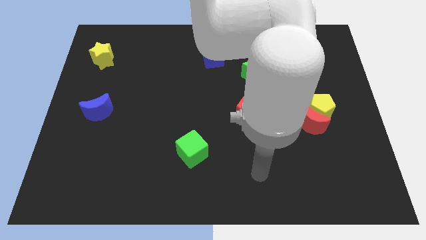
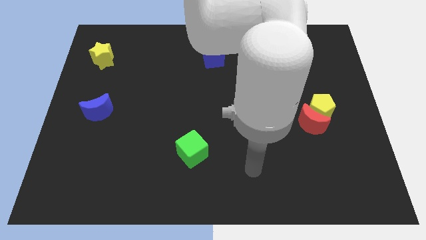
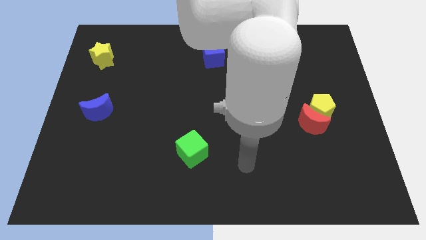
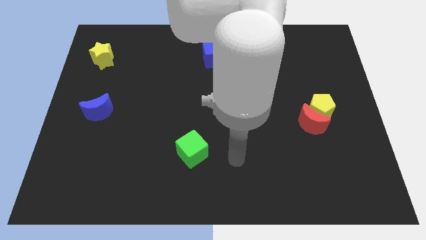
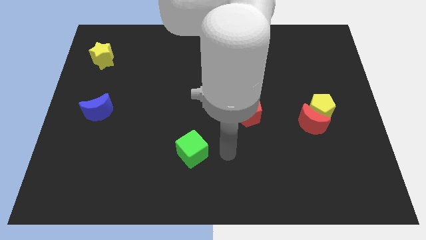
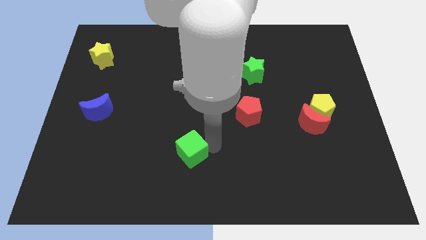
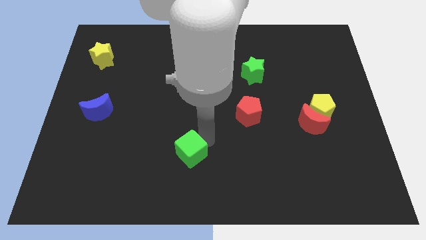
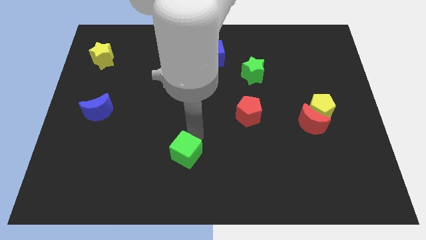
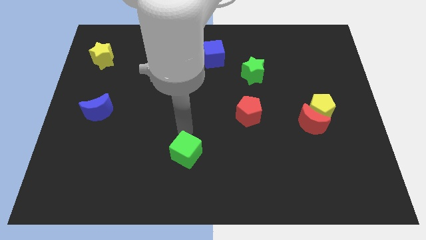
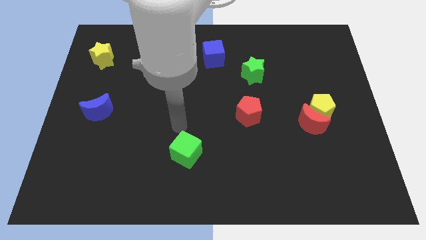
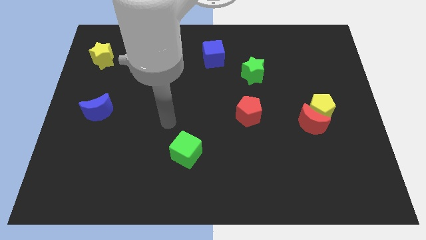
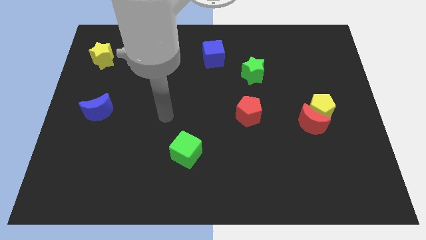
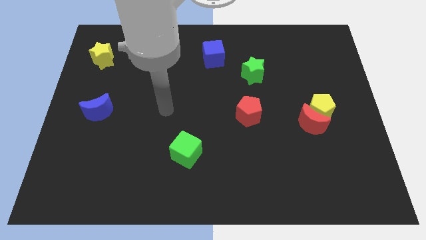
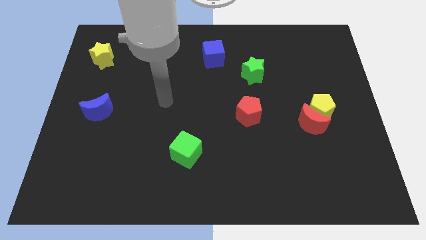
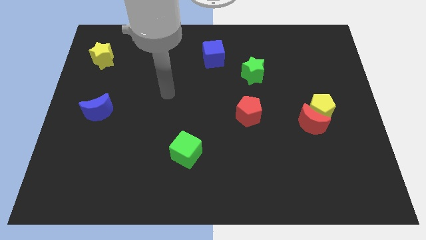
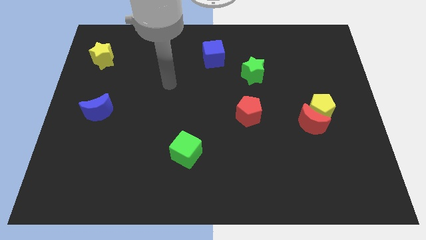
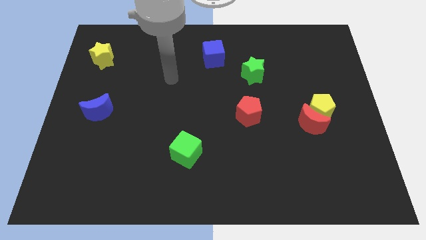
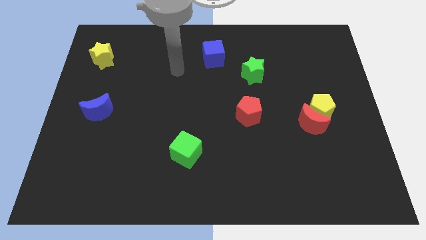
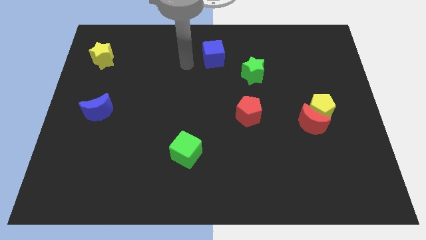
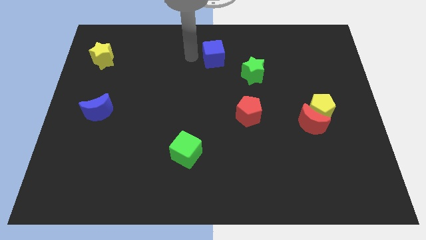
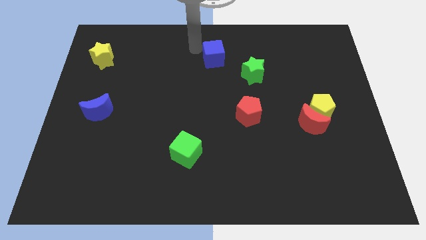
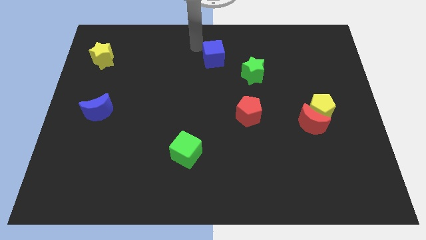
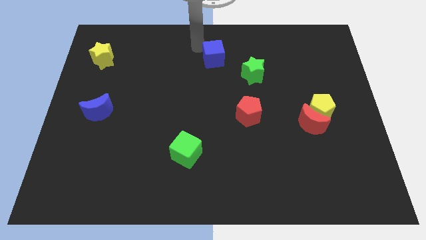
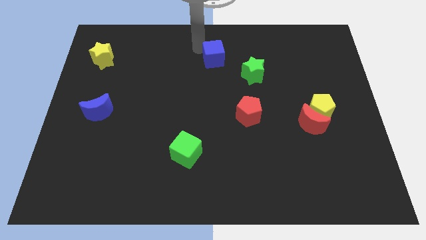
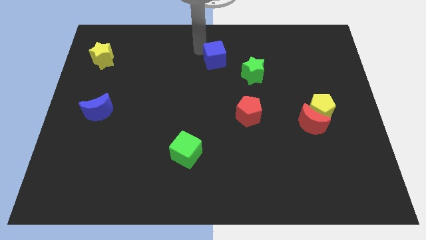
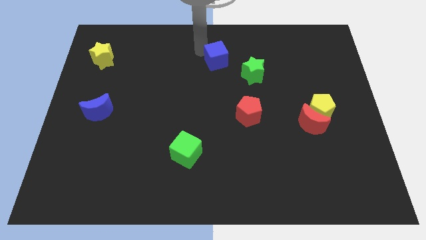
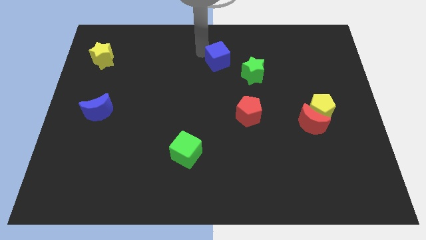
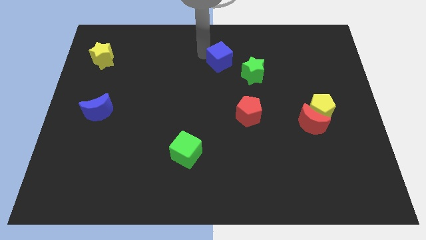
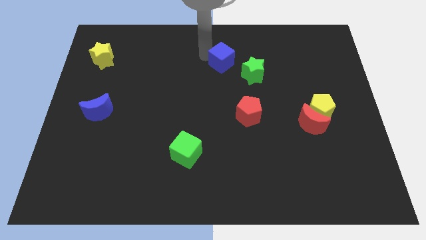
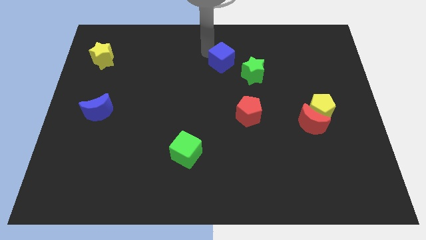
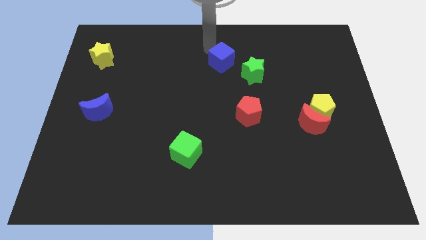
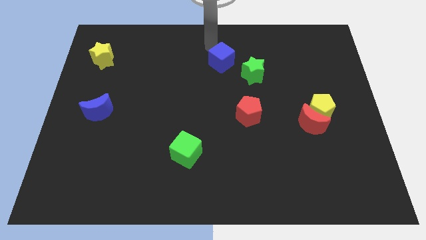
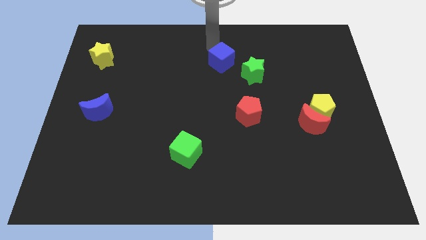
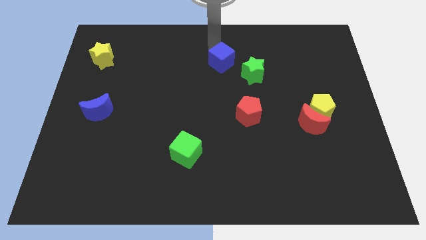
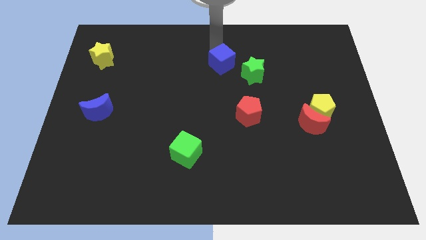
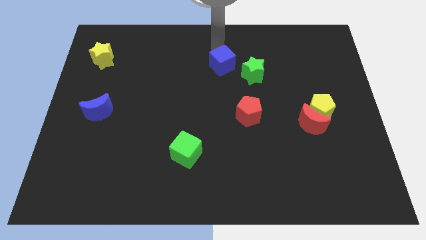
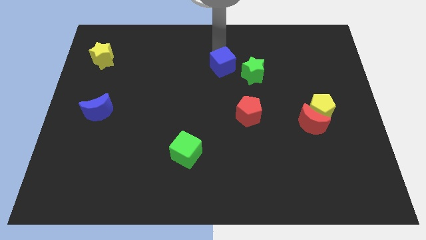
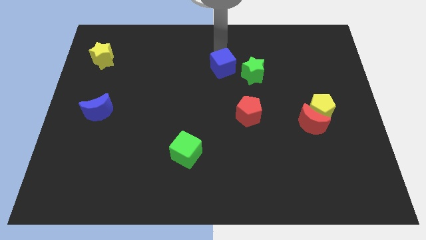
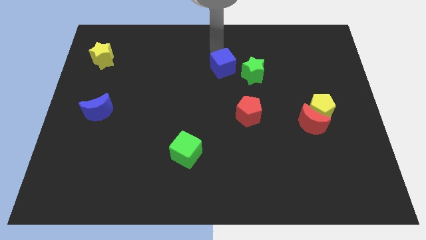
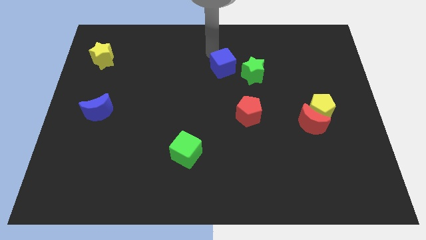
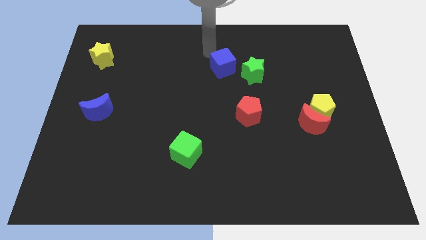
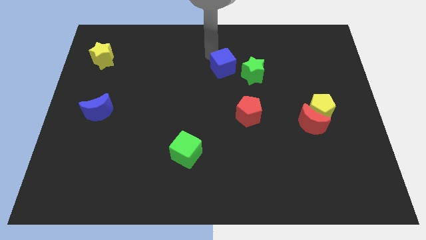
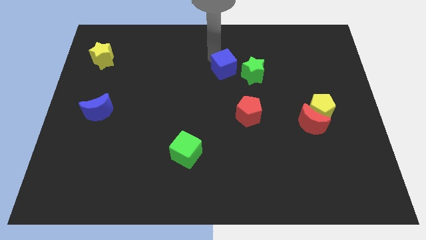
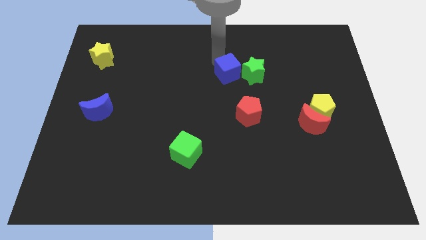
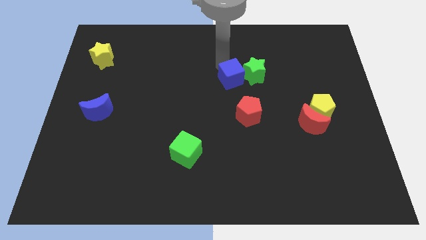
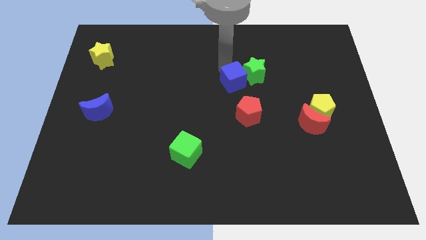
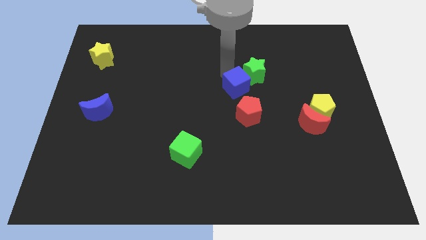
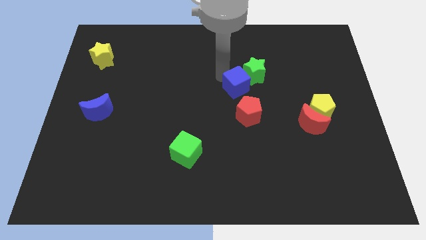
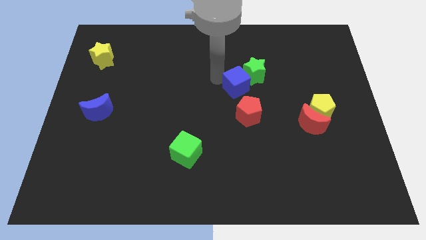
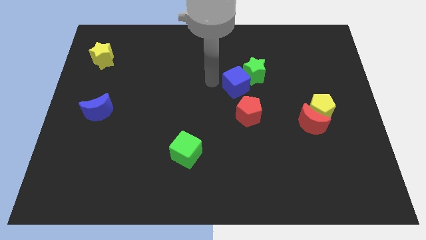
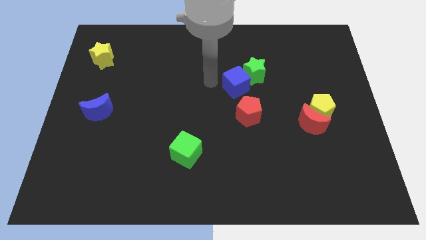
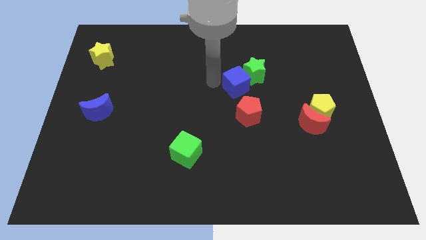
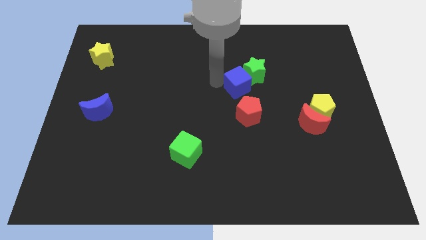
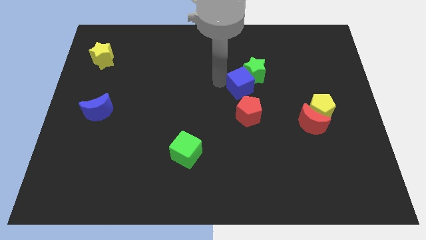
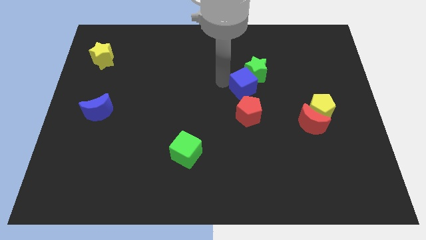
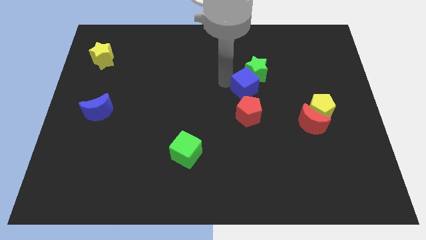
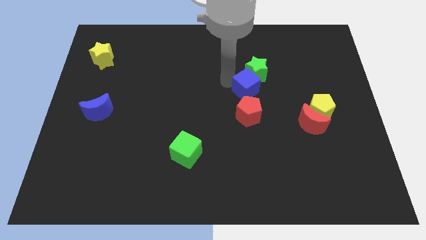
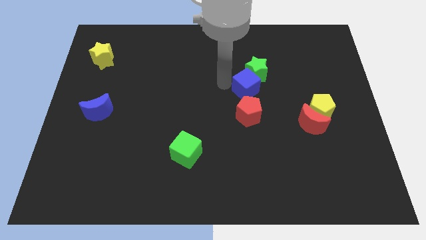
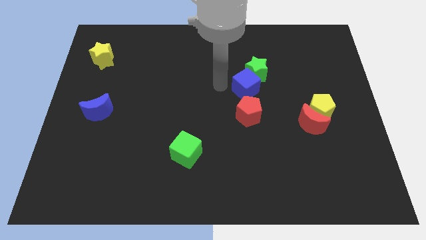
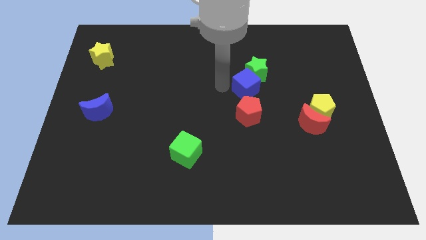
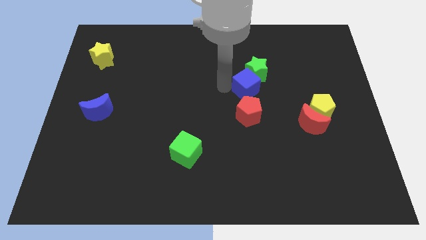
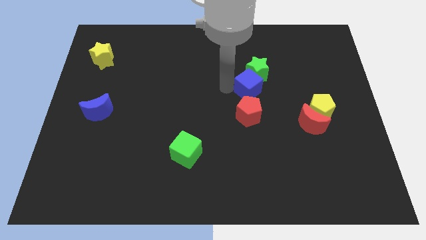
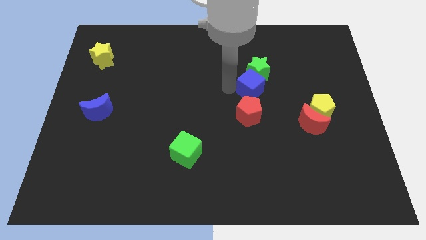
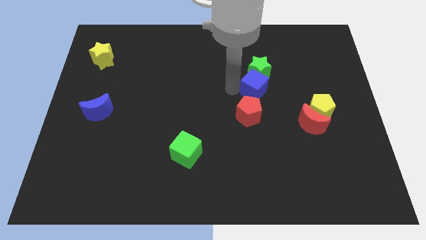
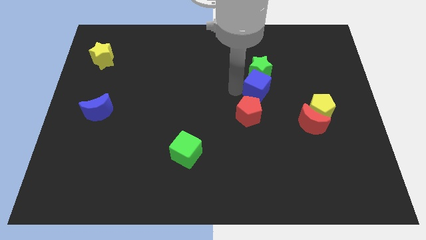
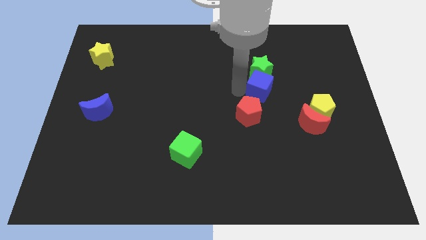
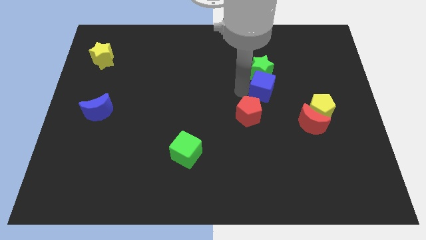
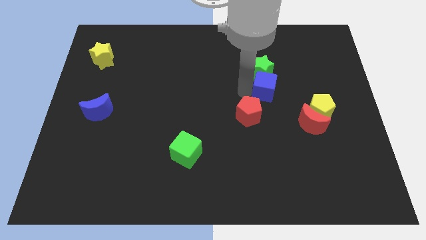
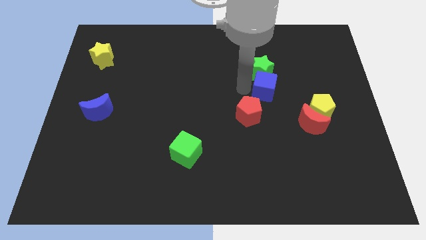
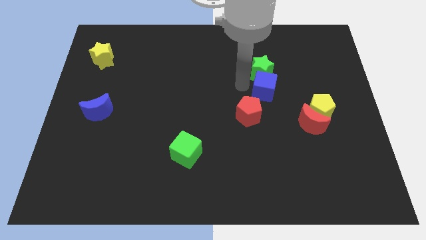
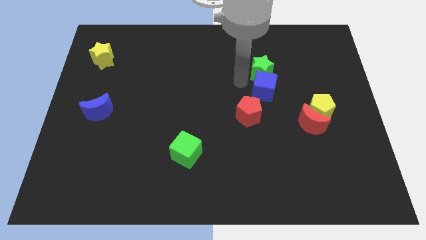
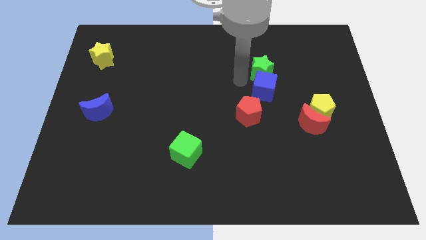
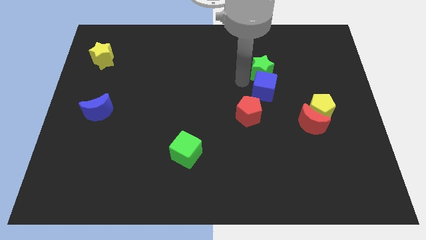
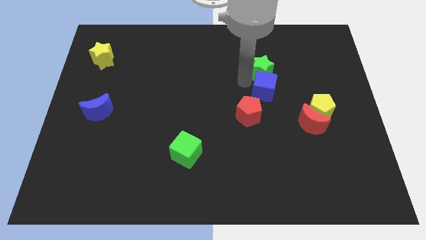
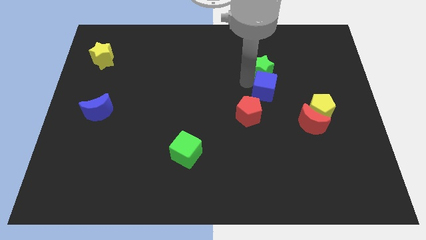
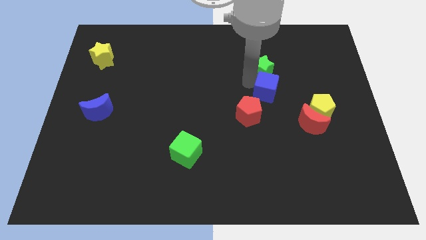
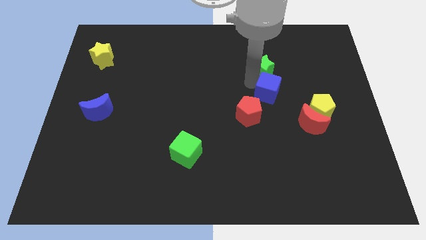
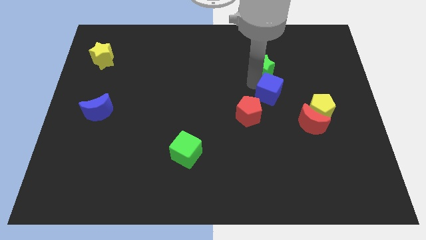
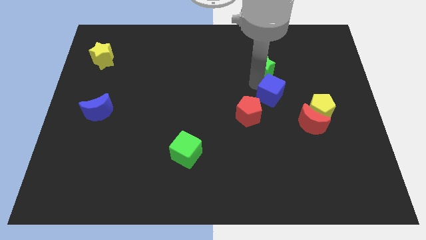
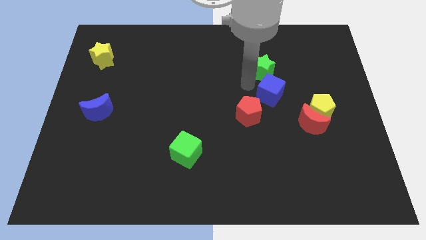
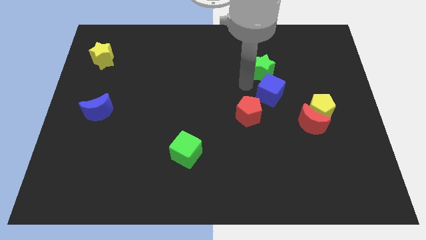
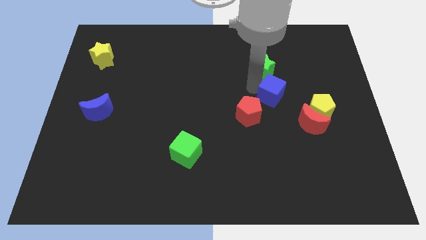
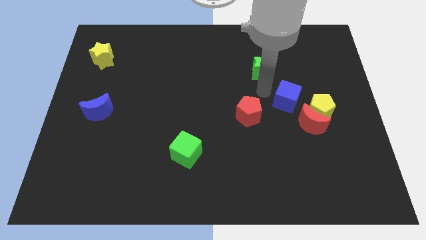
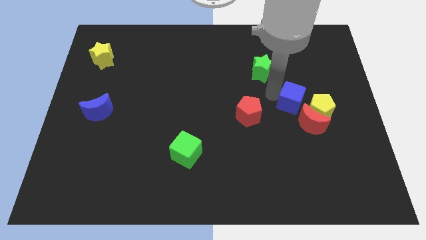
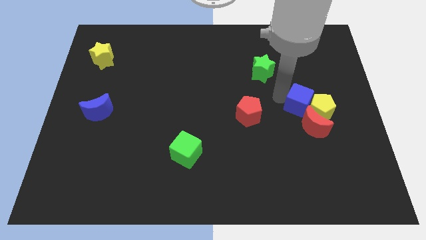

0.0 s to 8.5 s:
slide the blue cube close to the yellow pentagon
